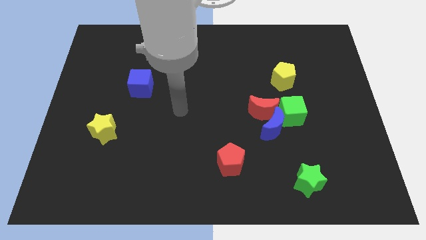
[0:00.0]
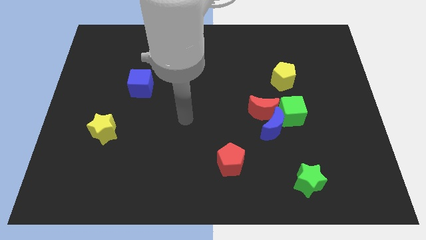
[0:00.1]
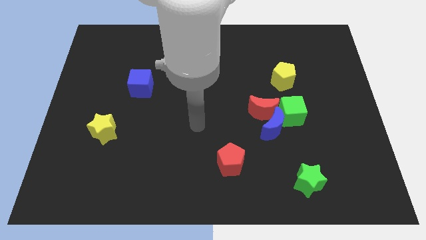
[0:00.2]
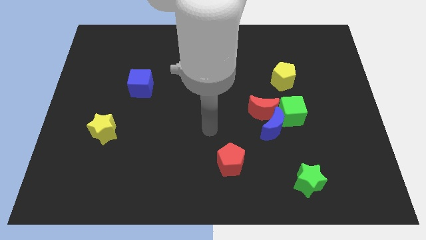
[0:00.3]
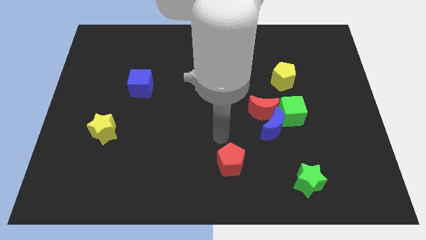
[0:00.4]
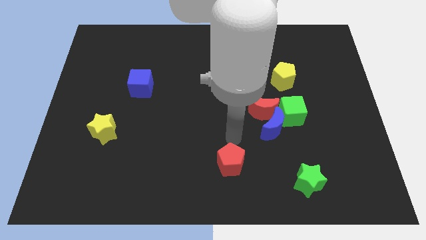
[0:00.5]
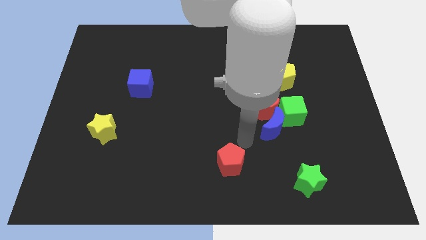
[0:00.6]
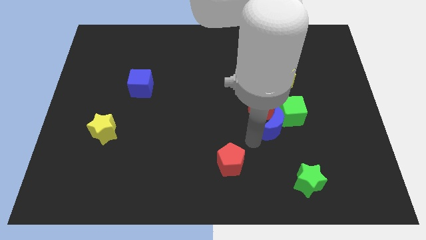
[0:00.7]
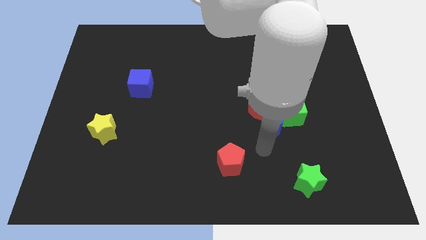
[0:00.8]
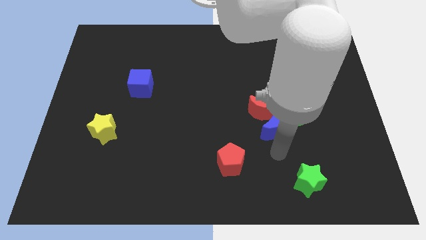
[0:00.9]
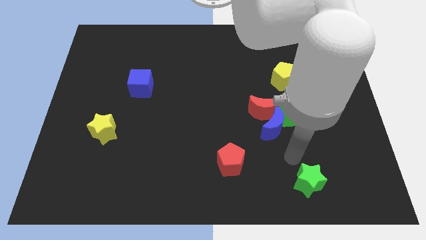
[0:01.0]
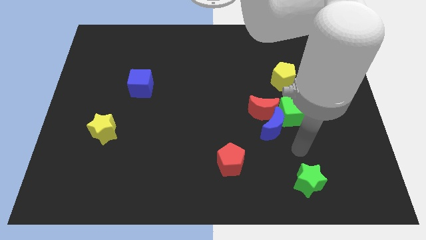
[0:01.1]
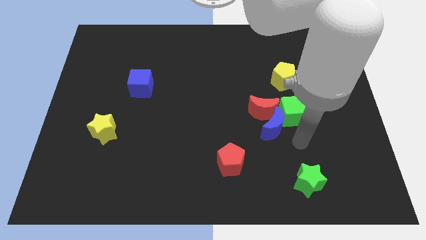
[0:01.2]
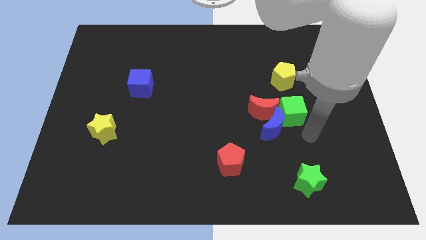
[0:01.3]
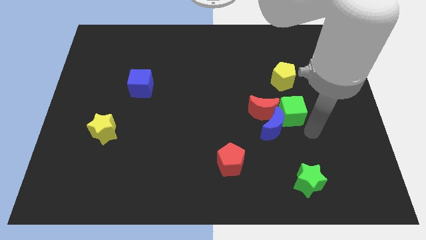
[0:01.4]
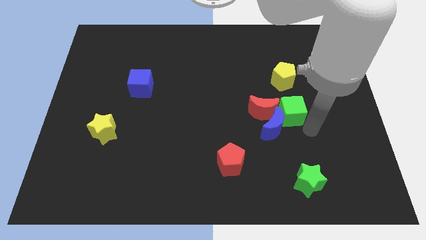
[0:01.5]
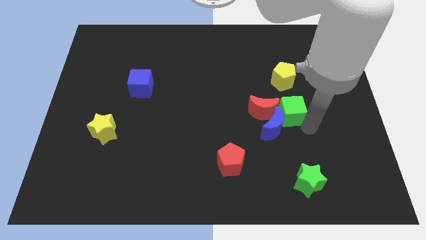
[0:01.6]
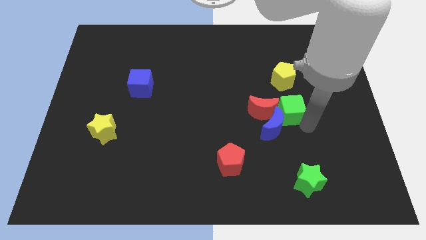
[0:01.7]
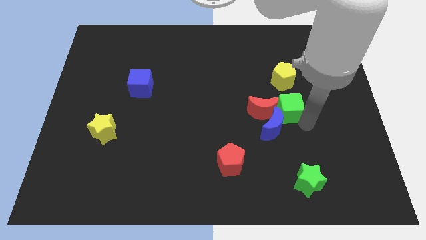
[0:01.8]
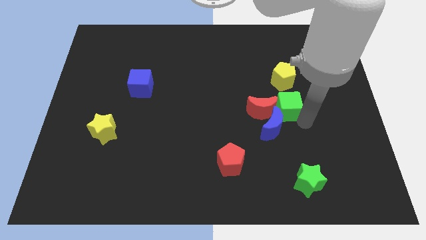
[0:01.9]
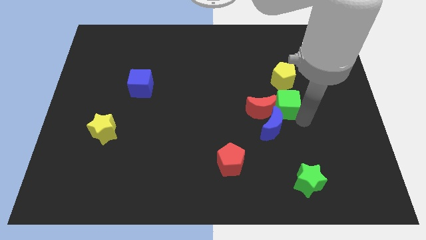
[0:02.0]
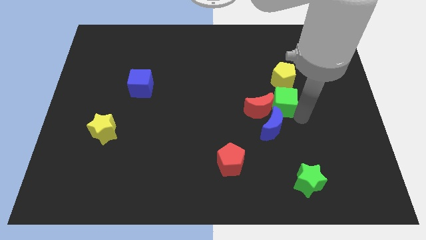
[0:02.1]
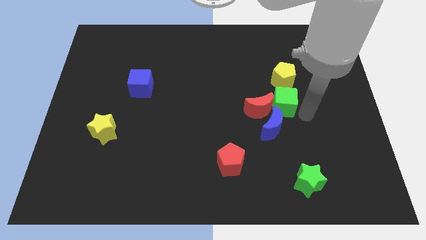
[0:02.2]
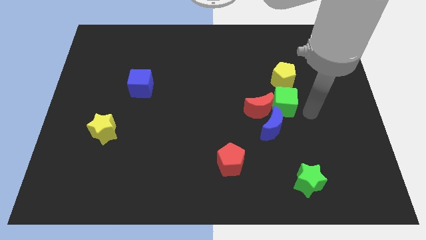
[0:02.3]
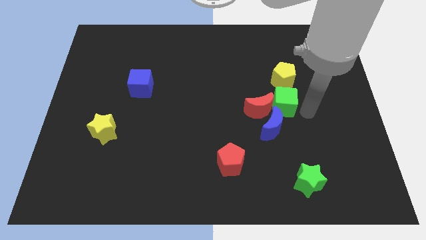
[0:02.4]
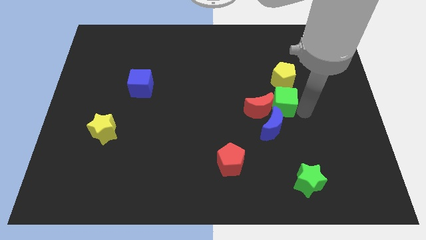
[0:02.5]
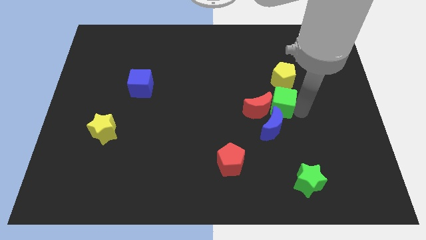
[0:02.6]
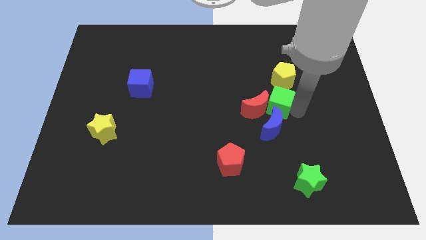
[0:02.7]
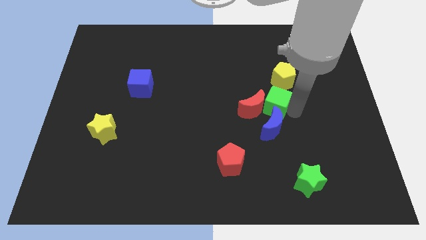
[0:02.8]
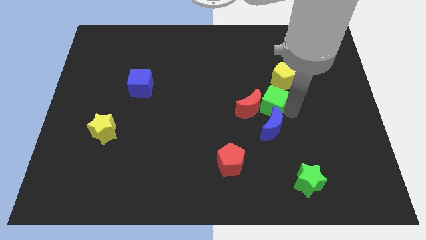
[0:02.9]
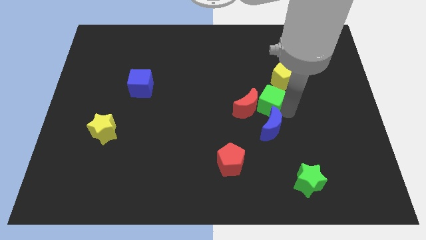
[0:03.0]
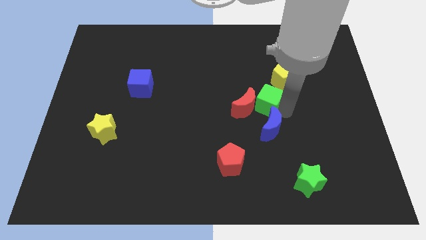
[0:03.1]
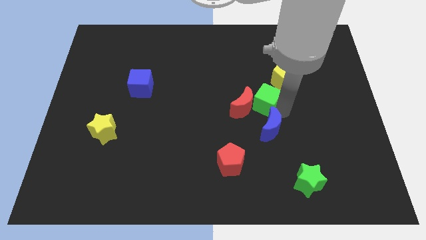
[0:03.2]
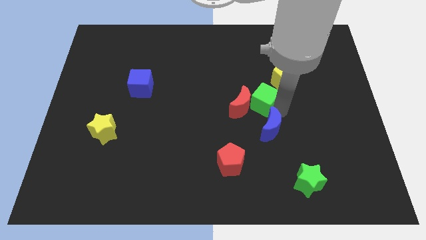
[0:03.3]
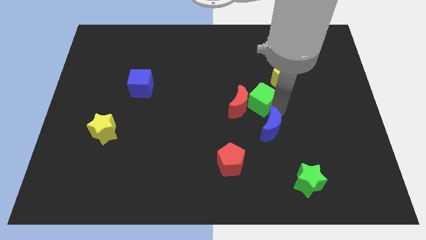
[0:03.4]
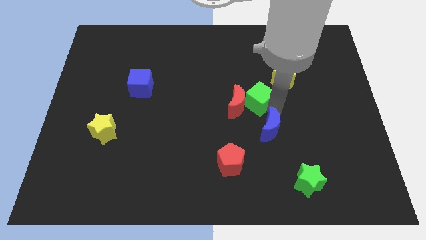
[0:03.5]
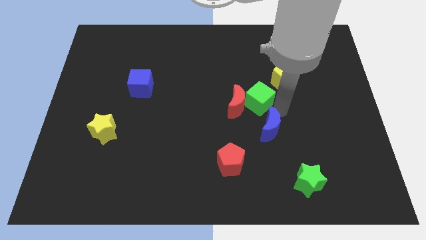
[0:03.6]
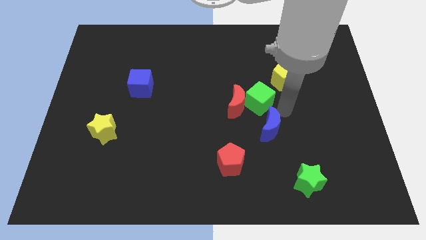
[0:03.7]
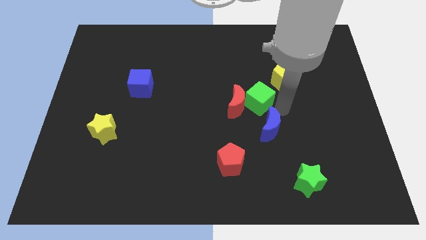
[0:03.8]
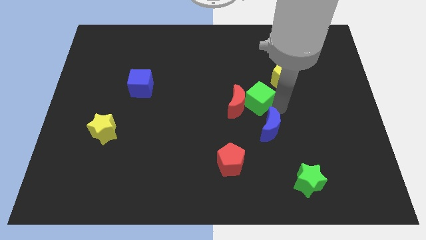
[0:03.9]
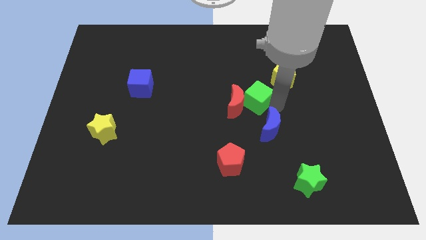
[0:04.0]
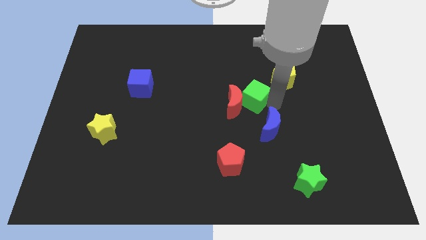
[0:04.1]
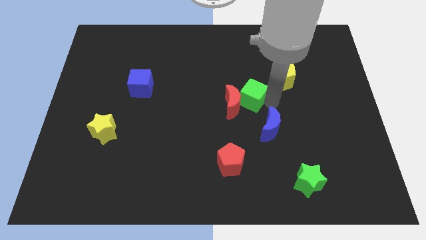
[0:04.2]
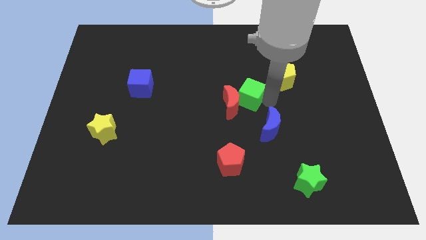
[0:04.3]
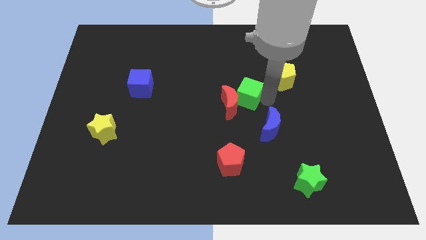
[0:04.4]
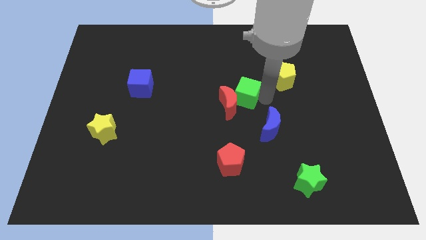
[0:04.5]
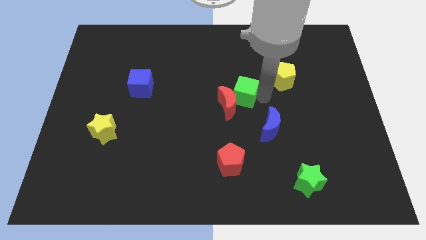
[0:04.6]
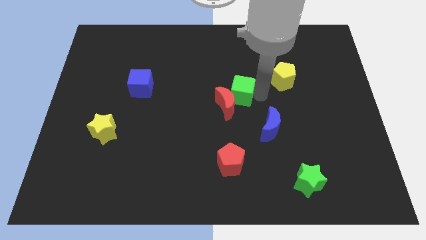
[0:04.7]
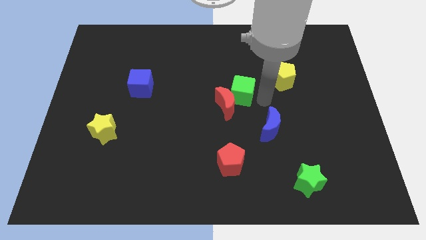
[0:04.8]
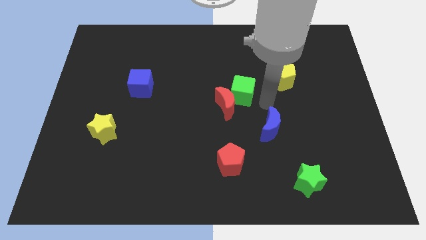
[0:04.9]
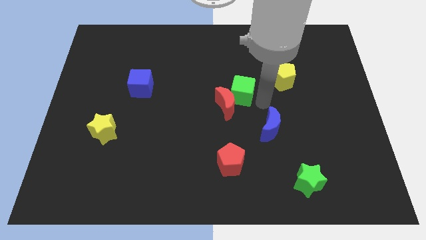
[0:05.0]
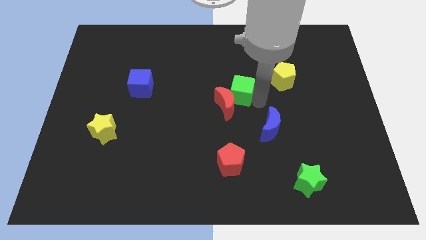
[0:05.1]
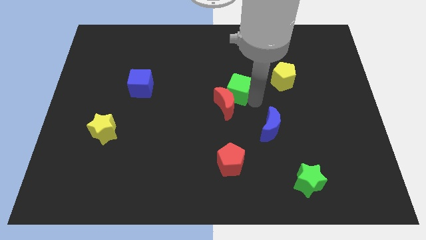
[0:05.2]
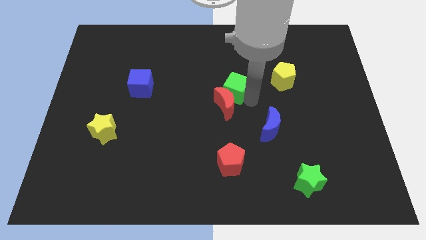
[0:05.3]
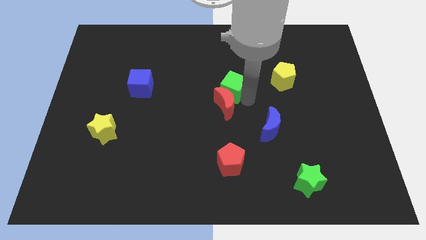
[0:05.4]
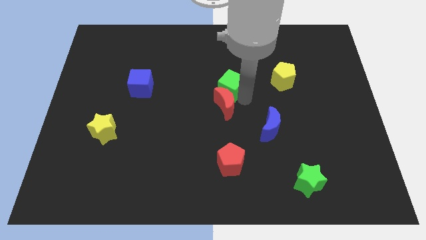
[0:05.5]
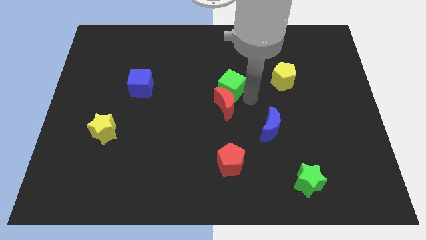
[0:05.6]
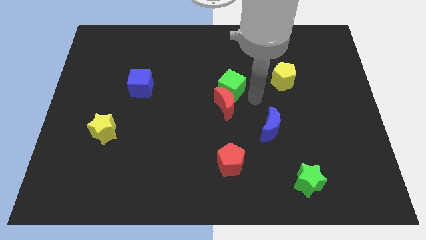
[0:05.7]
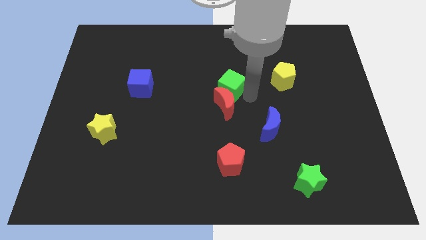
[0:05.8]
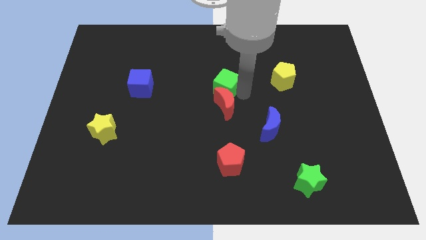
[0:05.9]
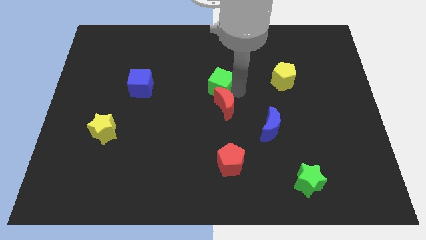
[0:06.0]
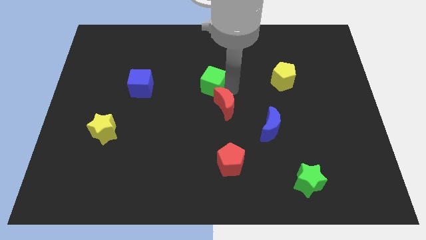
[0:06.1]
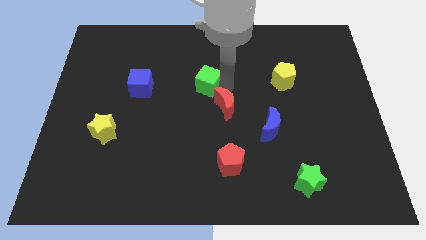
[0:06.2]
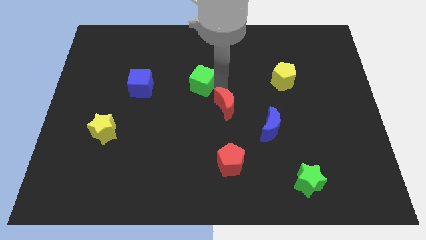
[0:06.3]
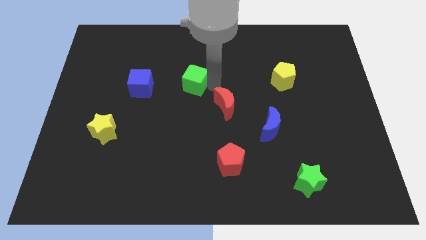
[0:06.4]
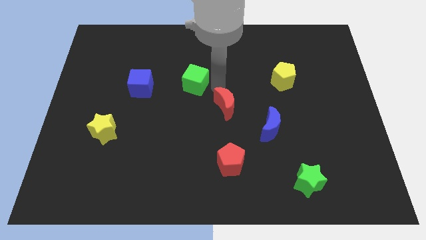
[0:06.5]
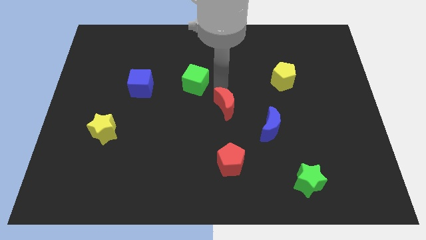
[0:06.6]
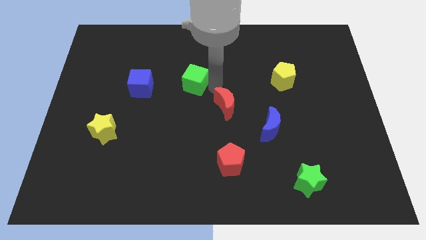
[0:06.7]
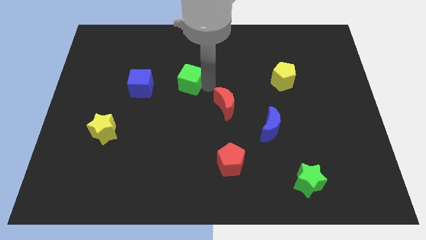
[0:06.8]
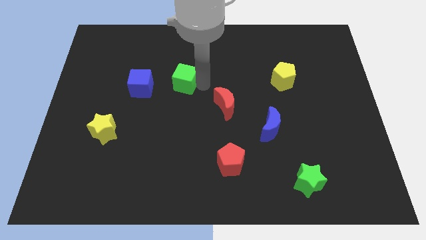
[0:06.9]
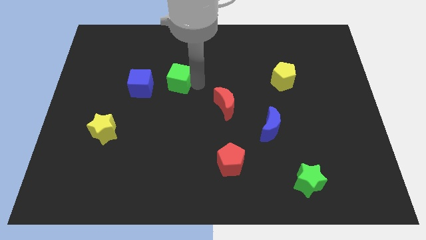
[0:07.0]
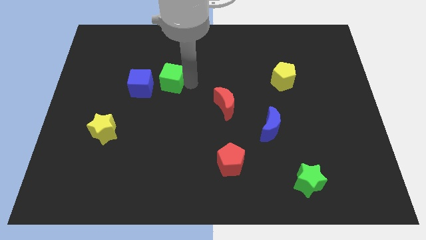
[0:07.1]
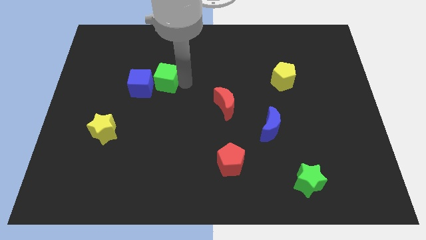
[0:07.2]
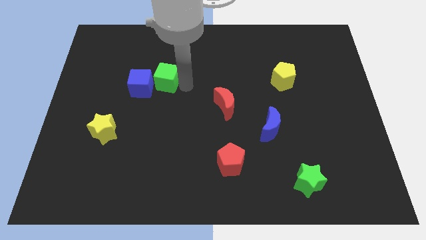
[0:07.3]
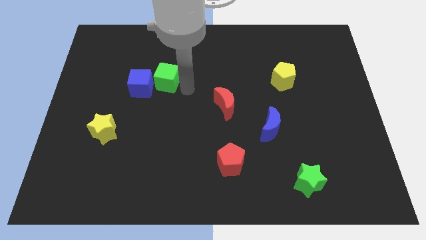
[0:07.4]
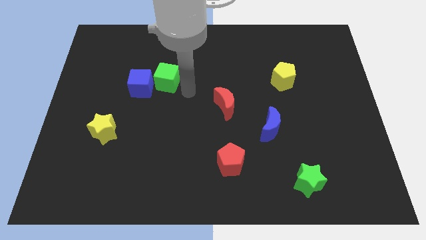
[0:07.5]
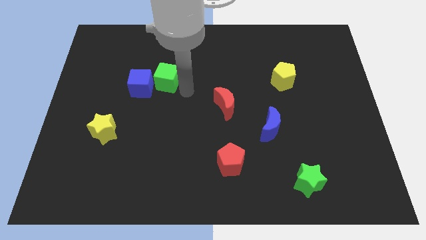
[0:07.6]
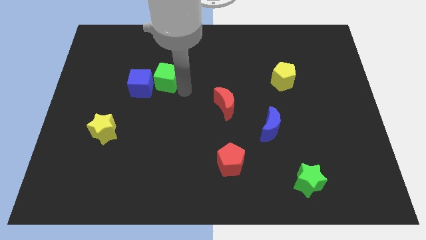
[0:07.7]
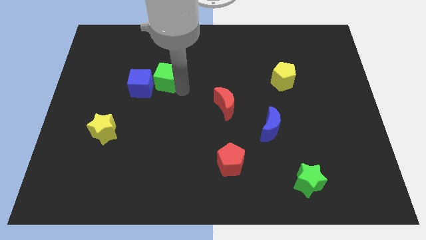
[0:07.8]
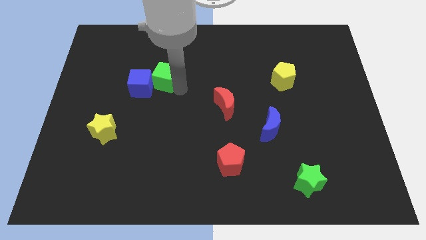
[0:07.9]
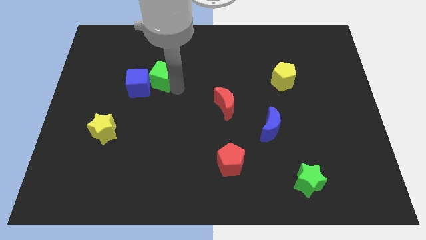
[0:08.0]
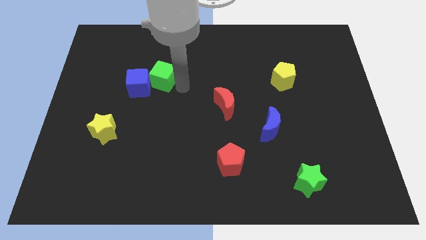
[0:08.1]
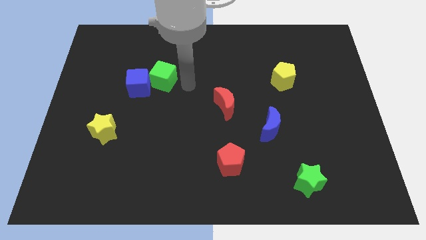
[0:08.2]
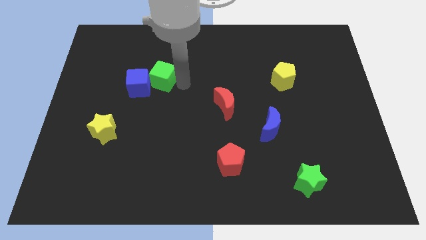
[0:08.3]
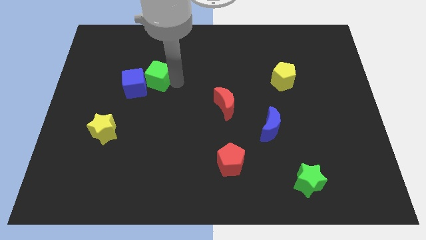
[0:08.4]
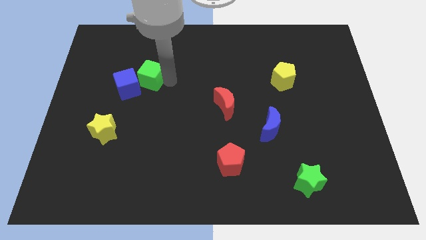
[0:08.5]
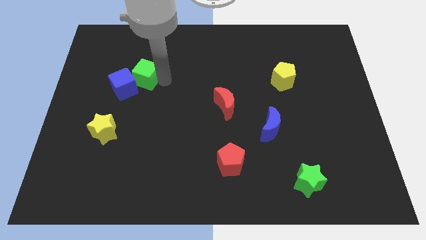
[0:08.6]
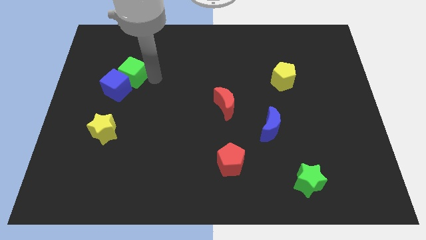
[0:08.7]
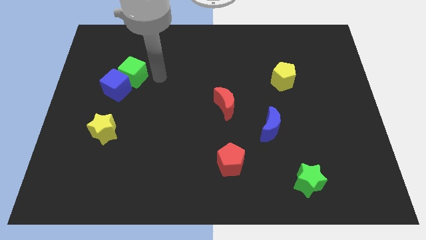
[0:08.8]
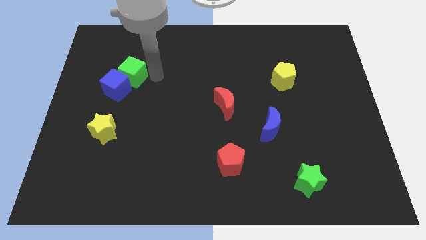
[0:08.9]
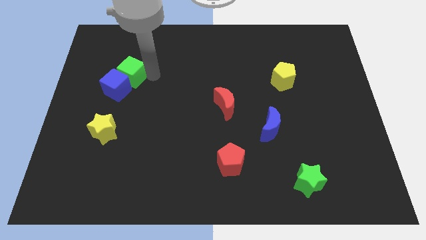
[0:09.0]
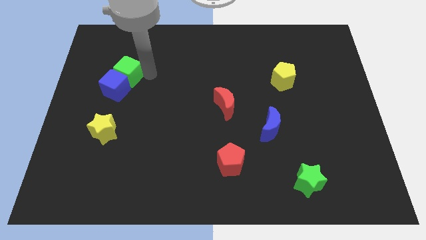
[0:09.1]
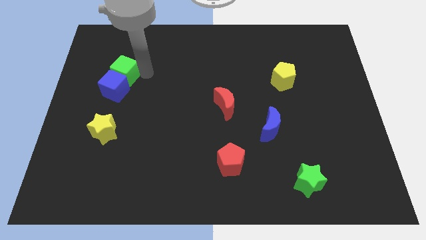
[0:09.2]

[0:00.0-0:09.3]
push the green cube to the top left of the blue cube
